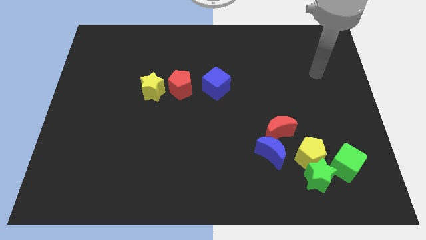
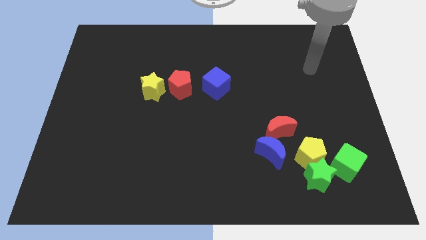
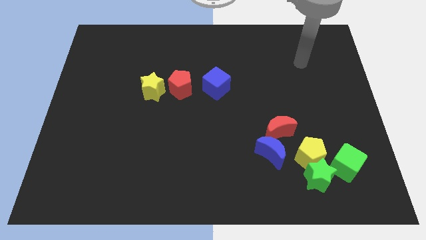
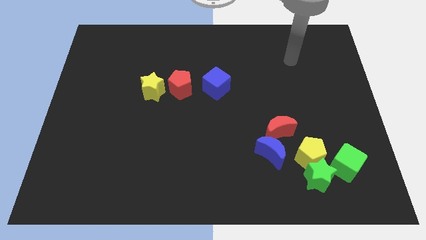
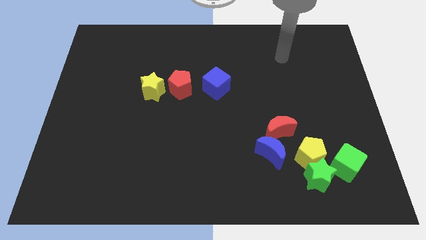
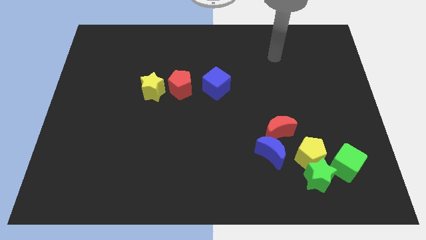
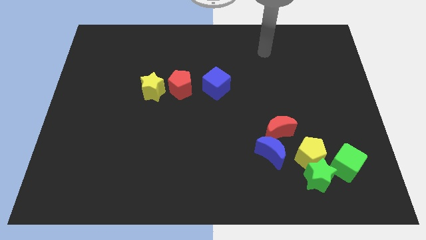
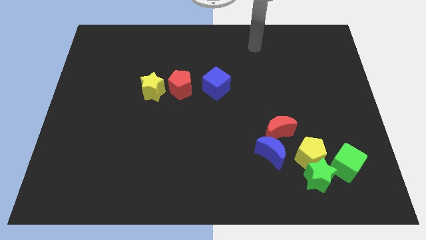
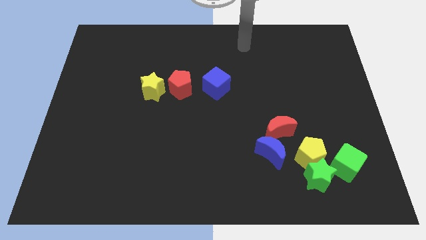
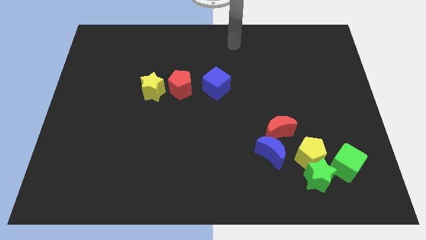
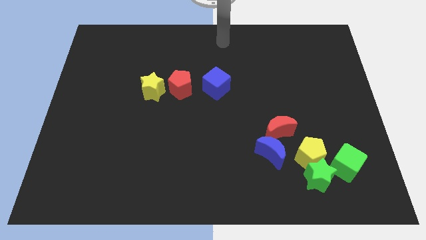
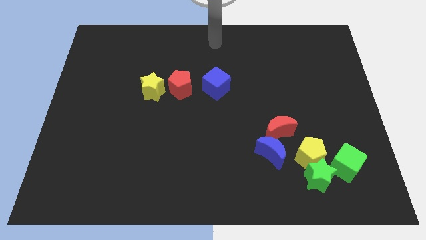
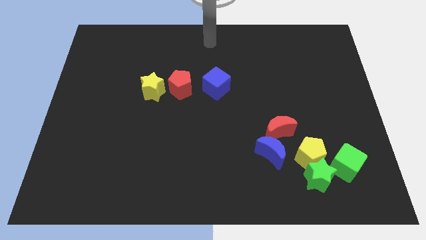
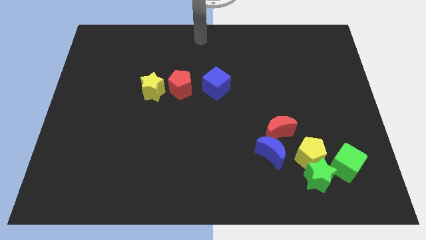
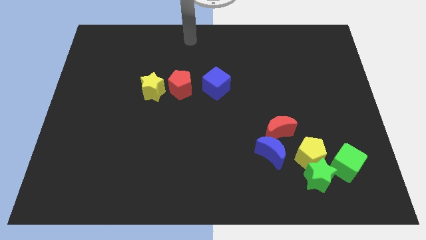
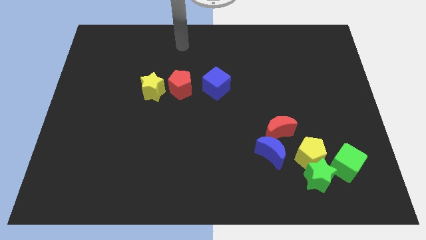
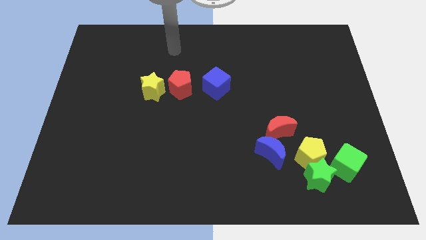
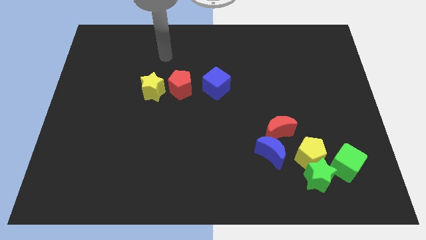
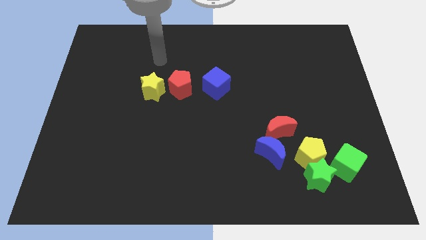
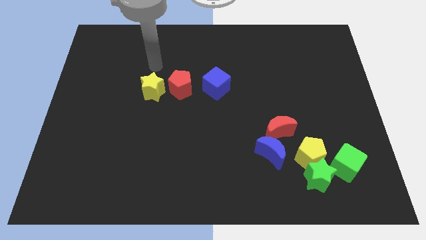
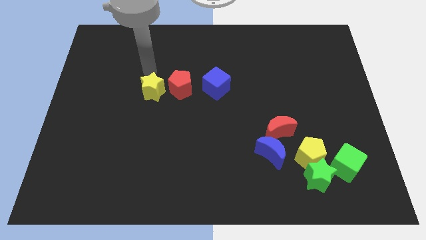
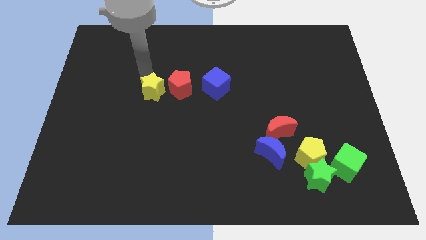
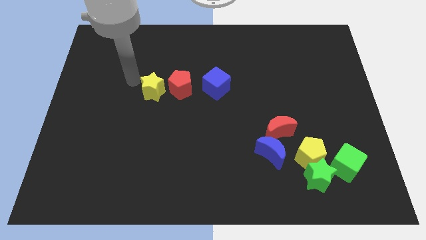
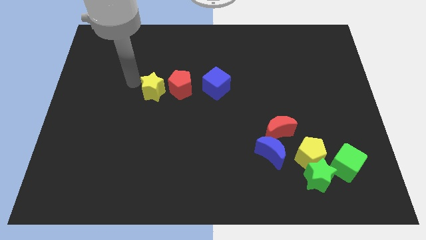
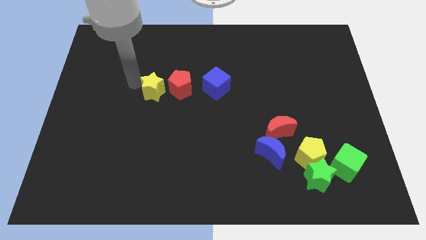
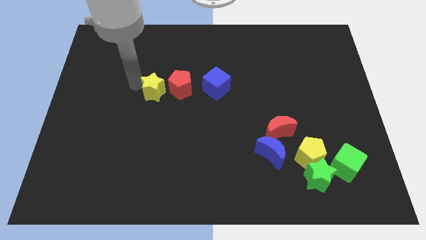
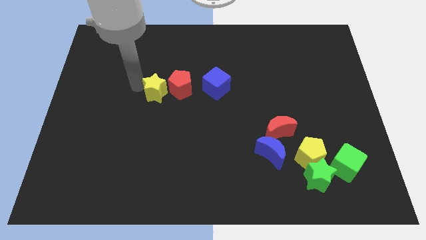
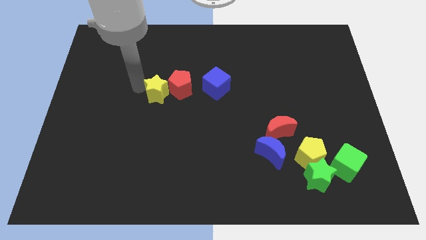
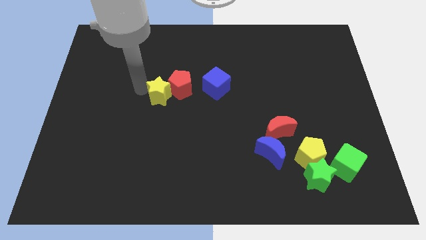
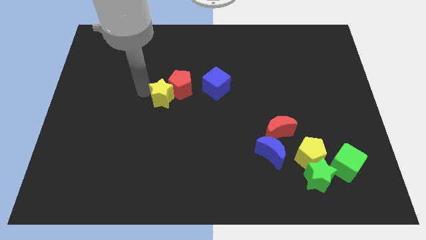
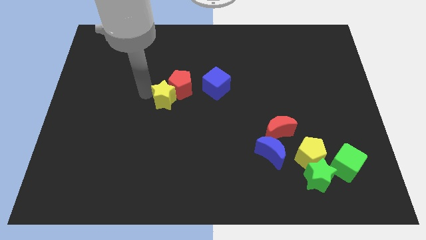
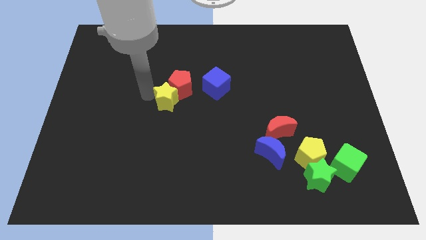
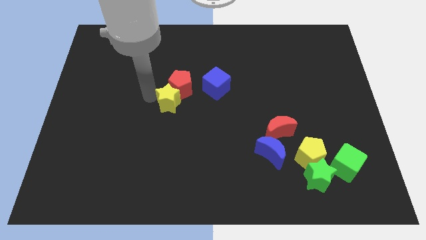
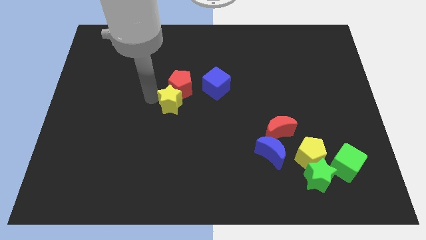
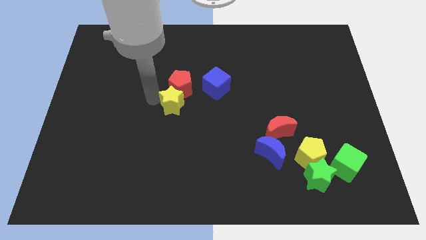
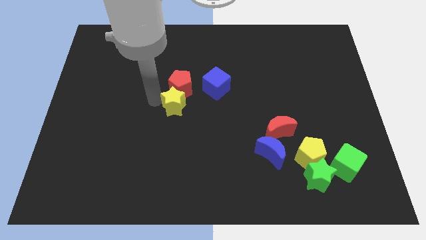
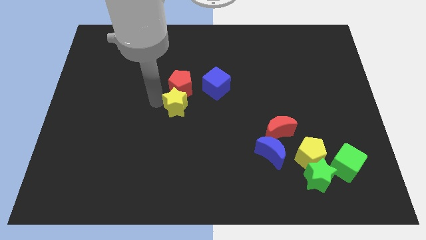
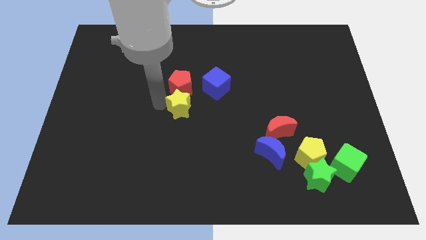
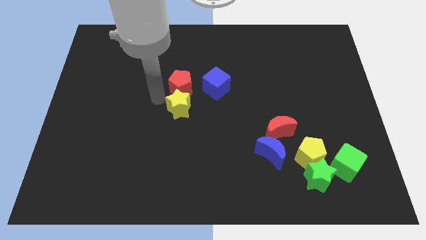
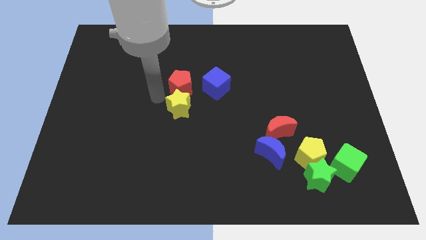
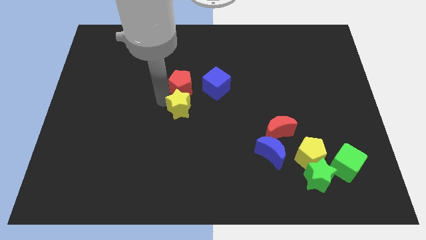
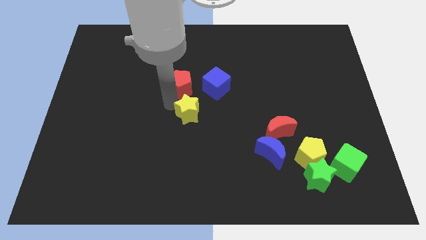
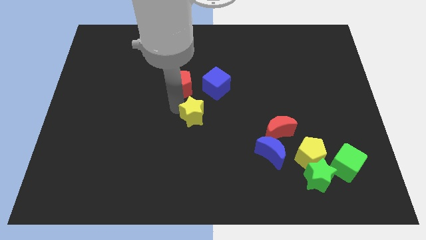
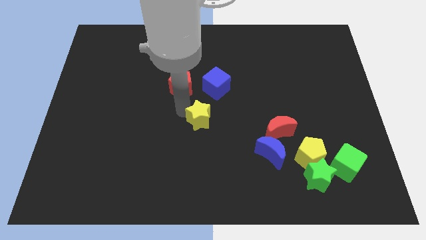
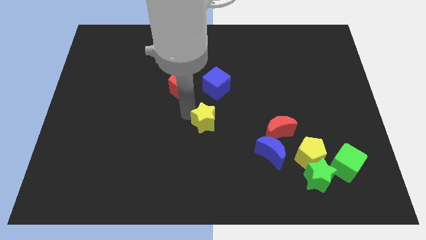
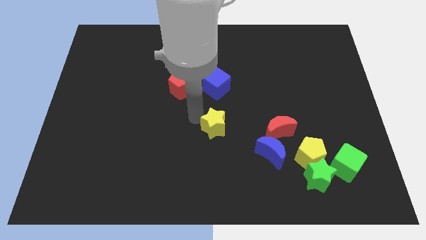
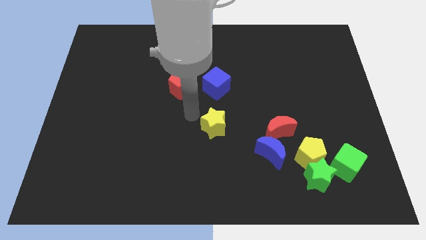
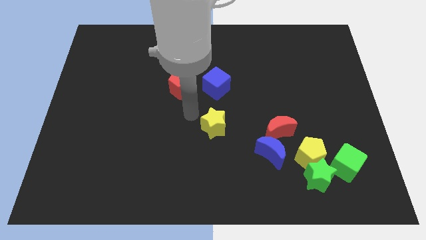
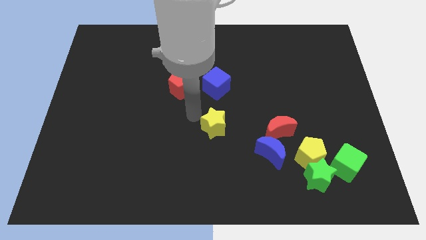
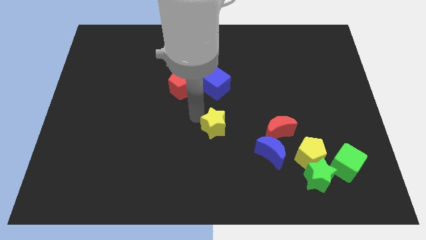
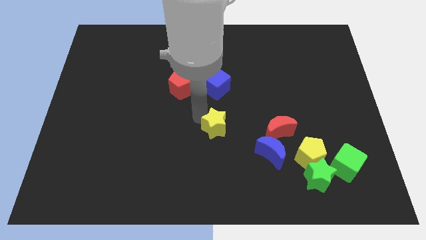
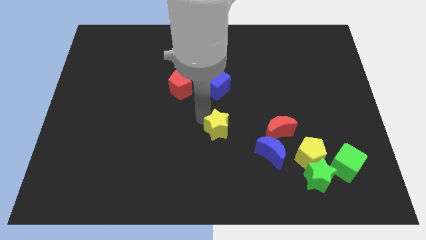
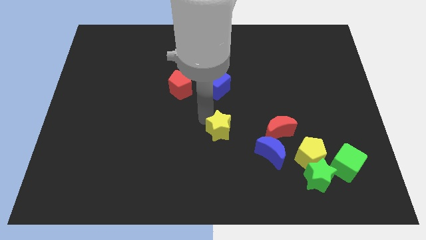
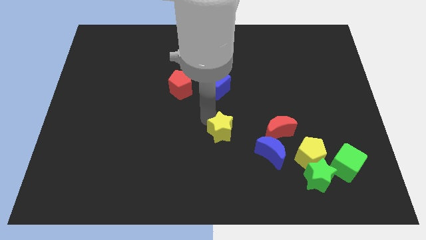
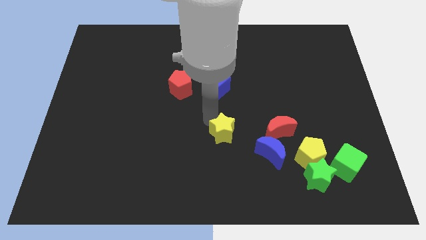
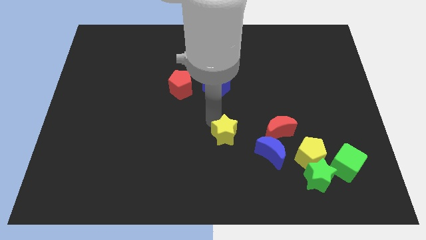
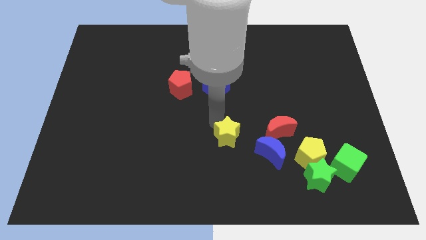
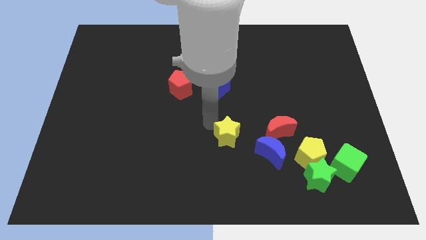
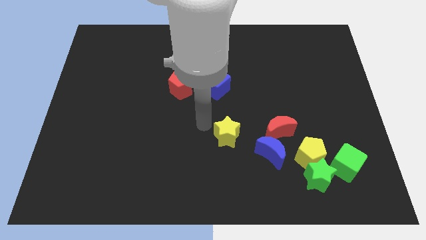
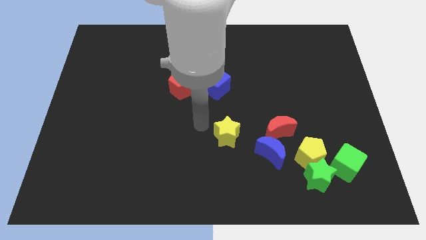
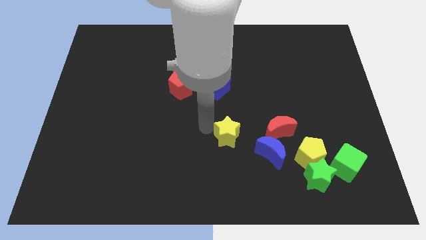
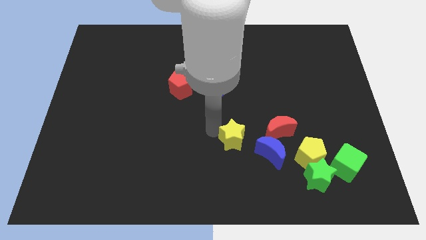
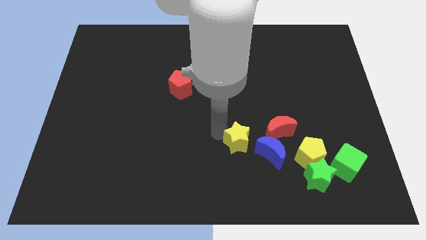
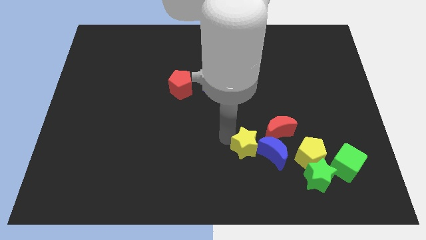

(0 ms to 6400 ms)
move the yellow star close to the blue moon

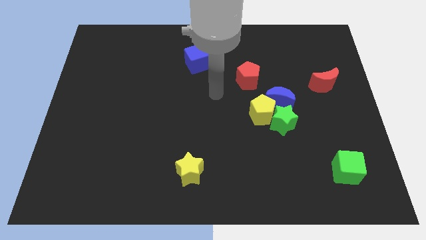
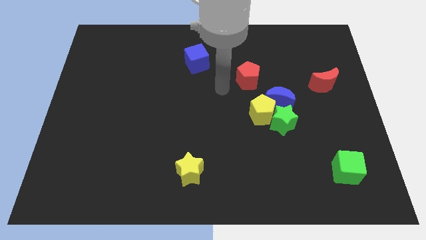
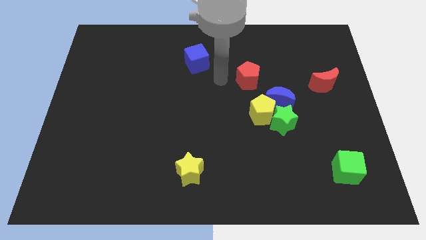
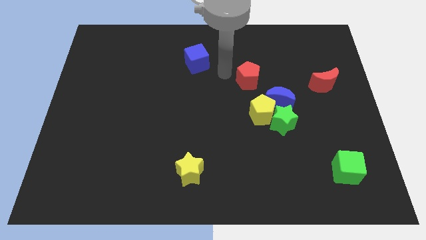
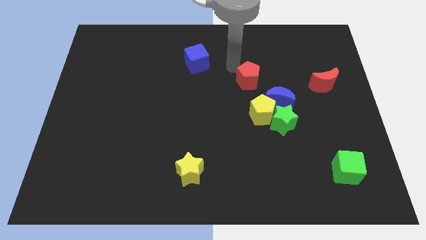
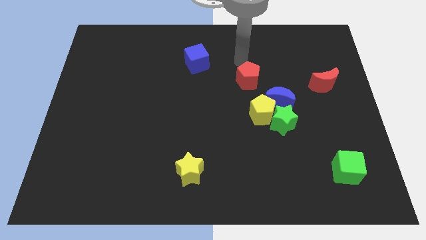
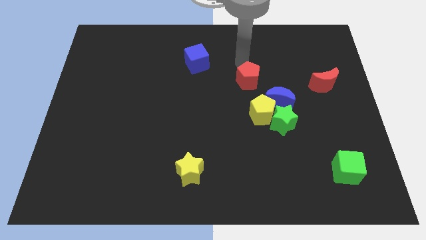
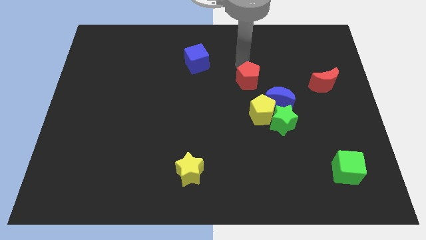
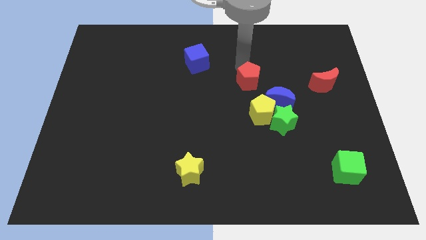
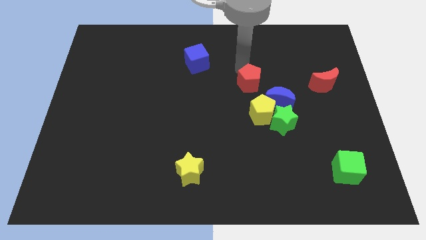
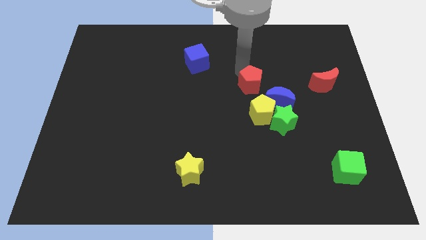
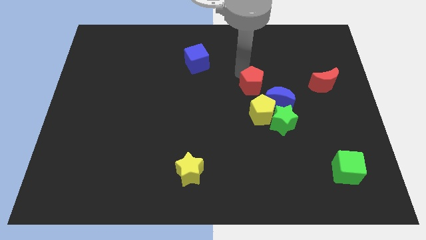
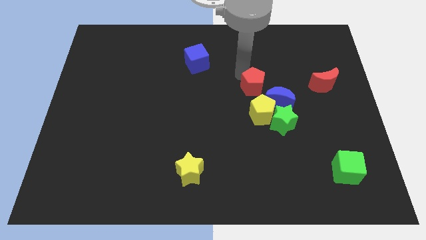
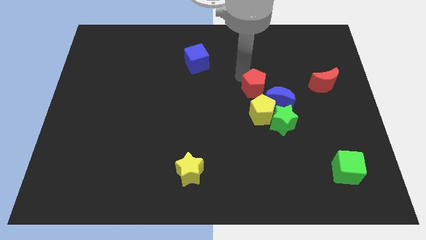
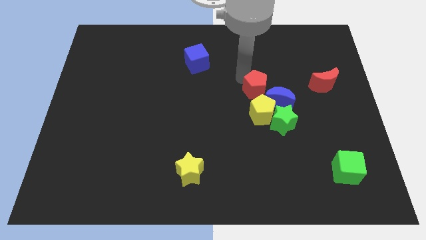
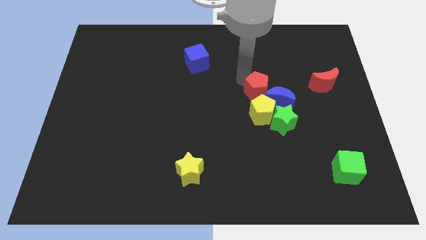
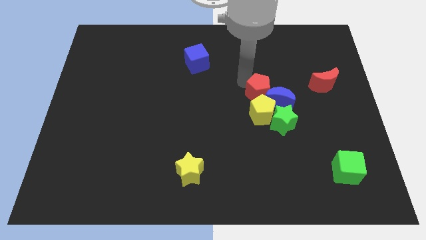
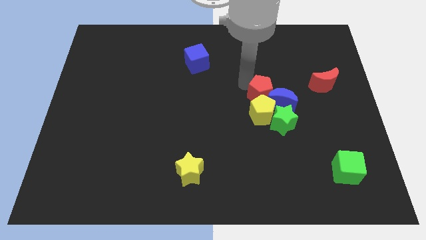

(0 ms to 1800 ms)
put the red pentagon to the yellow pentagon
